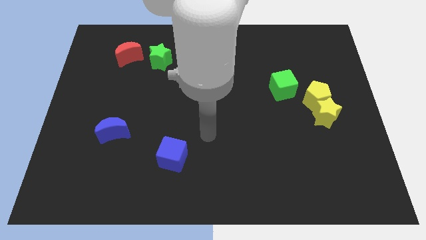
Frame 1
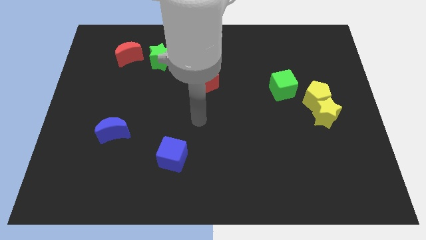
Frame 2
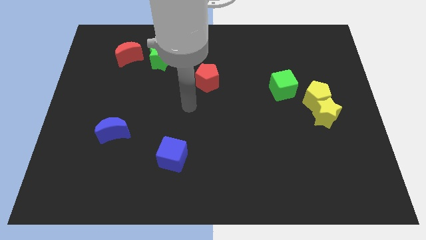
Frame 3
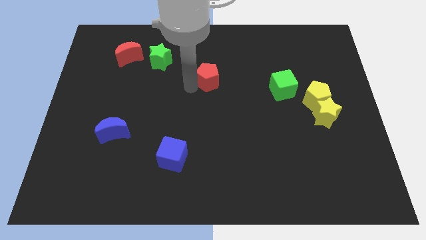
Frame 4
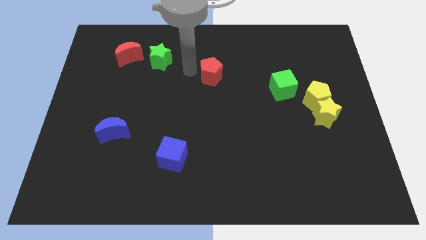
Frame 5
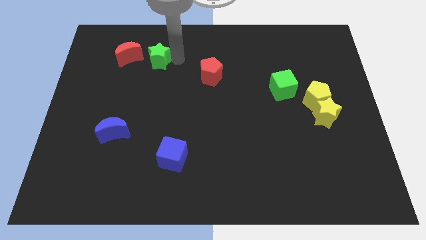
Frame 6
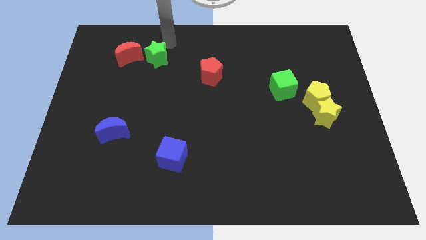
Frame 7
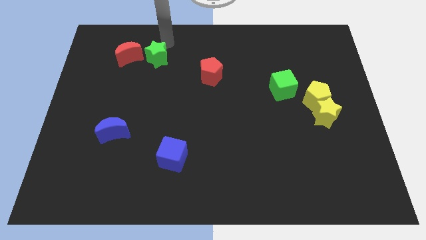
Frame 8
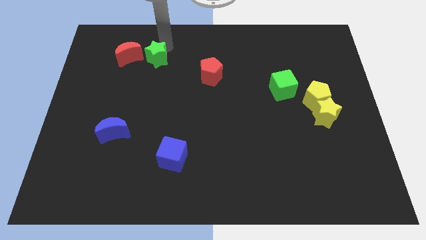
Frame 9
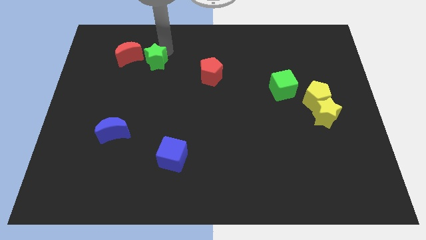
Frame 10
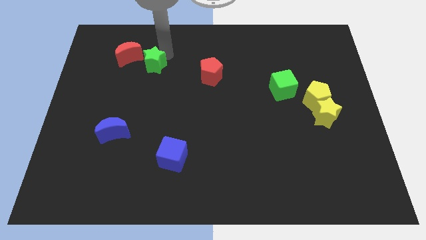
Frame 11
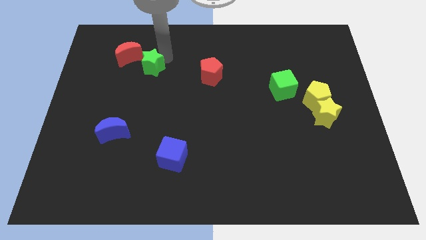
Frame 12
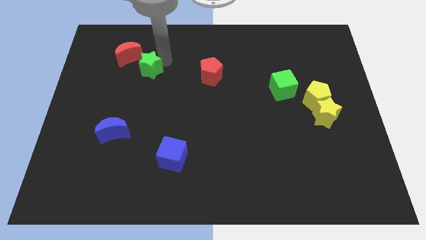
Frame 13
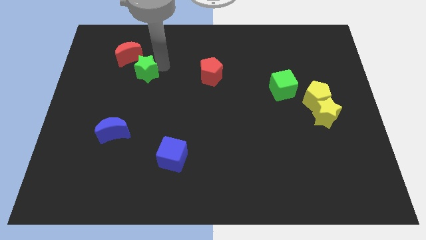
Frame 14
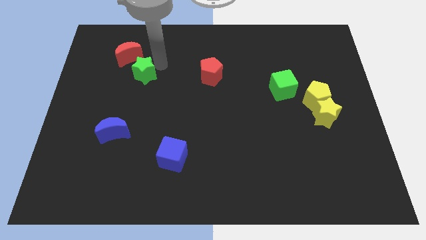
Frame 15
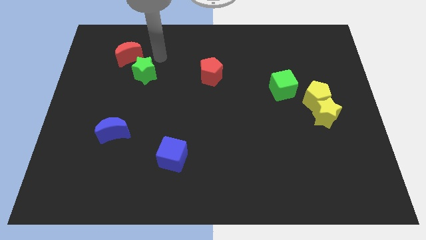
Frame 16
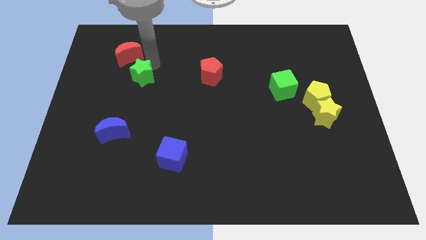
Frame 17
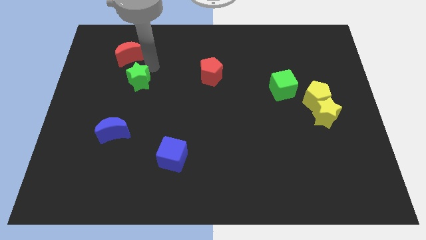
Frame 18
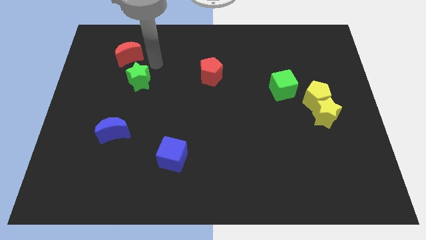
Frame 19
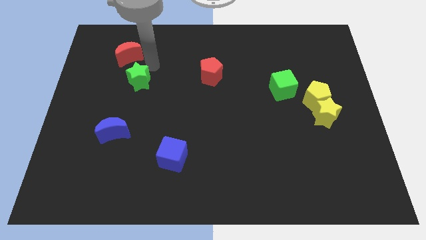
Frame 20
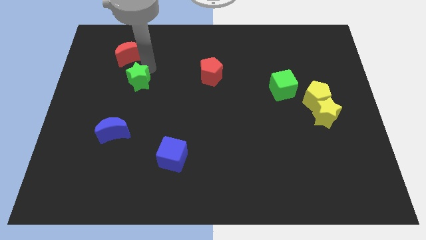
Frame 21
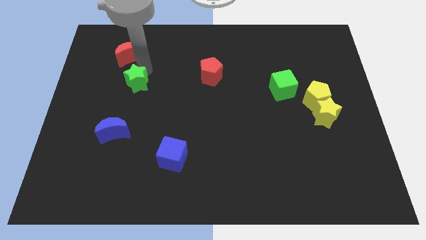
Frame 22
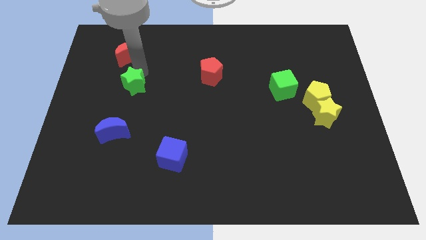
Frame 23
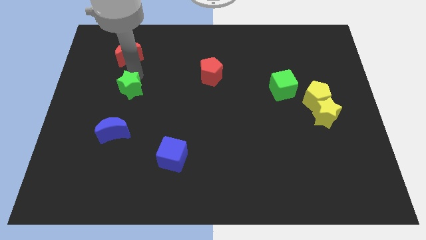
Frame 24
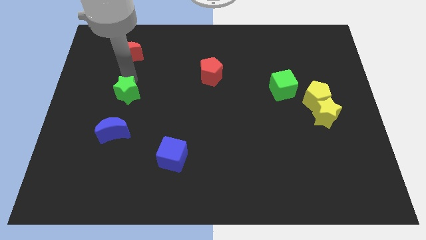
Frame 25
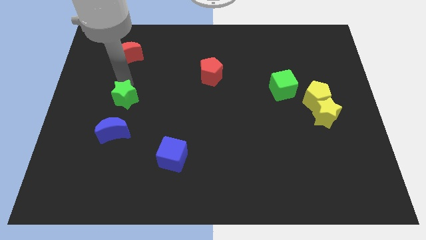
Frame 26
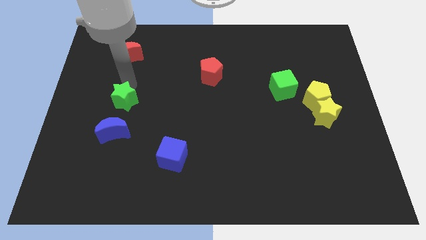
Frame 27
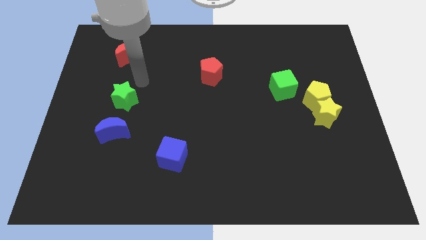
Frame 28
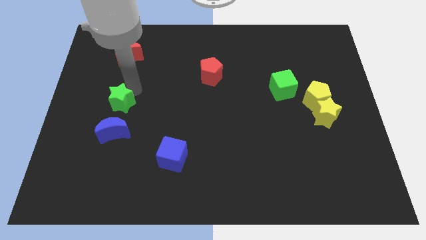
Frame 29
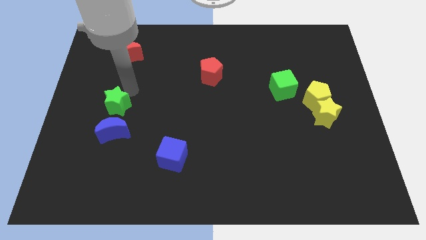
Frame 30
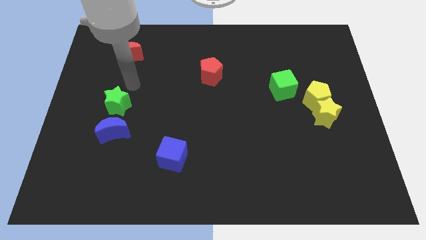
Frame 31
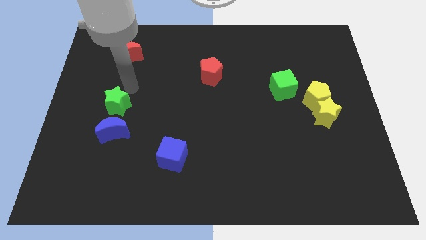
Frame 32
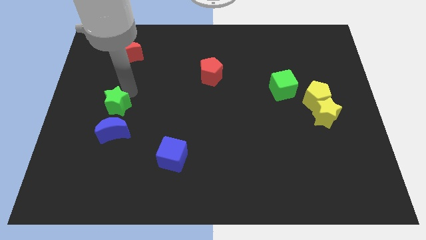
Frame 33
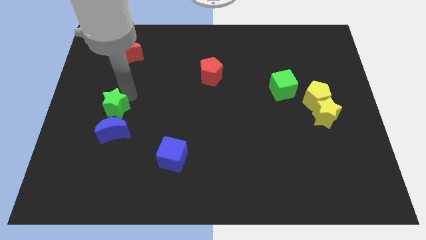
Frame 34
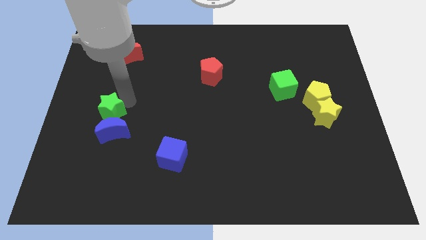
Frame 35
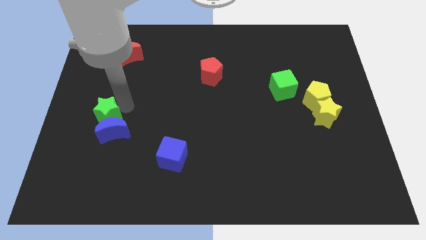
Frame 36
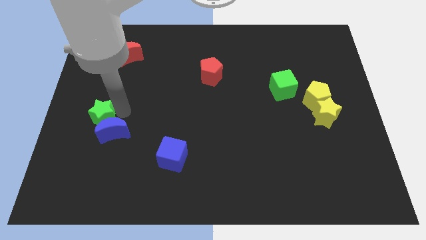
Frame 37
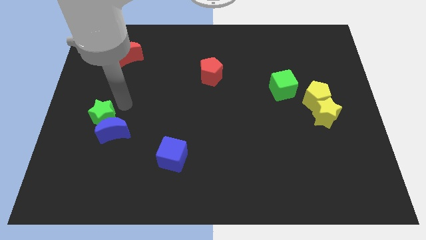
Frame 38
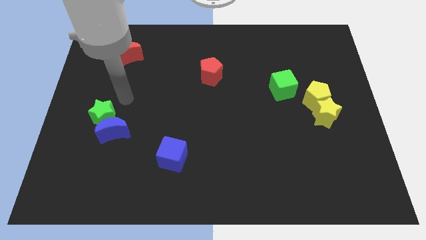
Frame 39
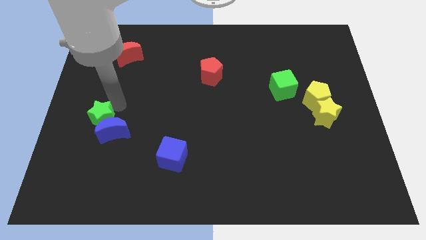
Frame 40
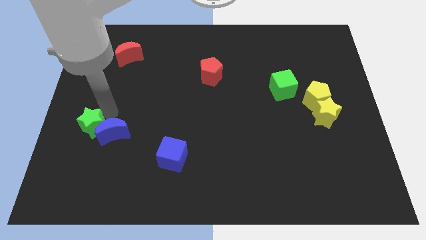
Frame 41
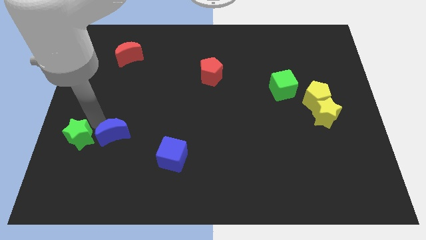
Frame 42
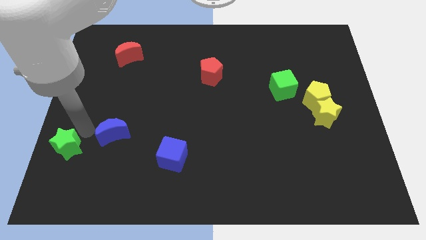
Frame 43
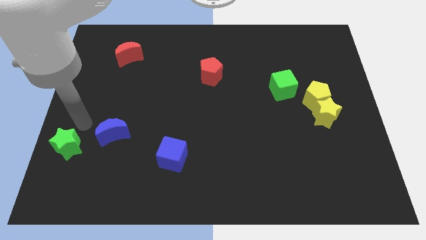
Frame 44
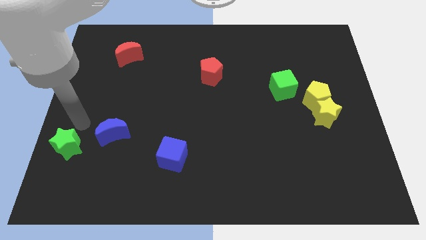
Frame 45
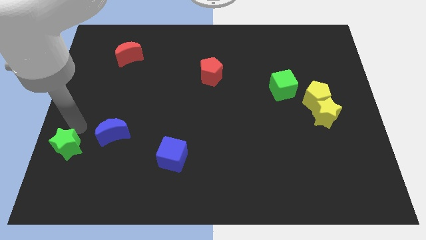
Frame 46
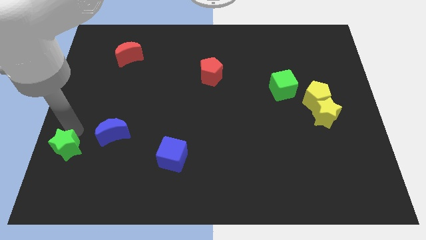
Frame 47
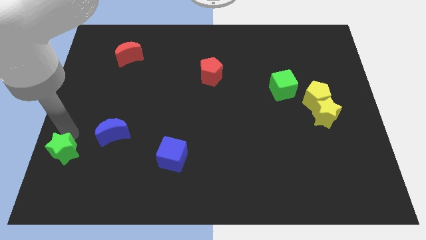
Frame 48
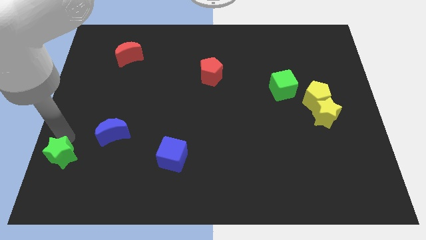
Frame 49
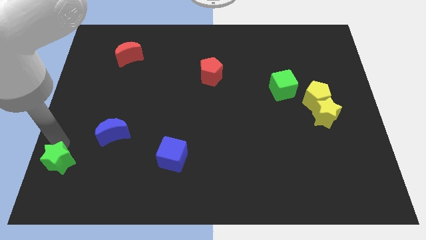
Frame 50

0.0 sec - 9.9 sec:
slide the green star to the lower left corner

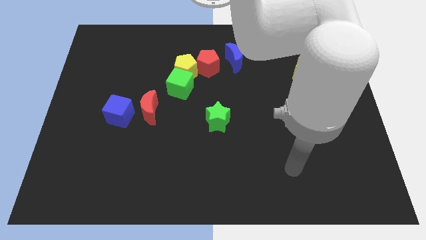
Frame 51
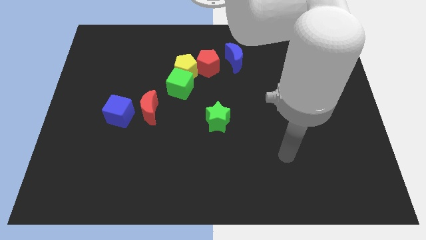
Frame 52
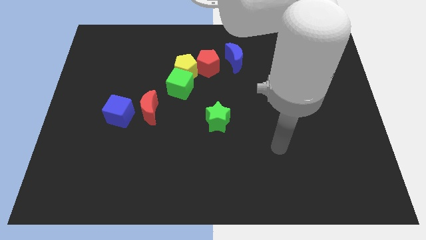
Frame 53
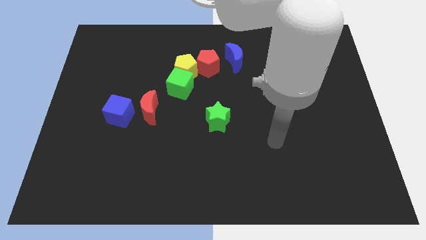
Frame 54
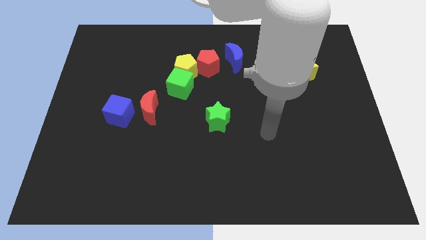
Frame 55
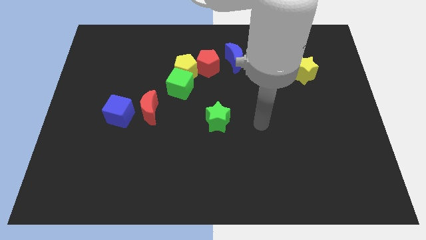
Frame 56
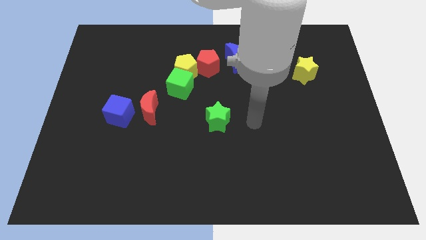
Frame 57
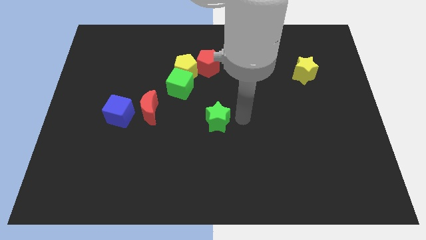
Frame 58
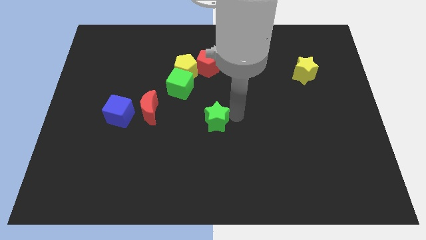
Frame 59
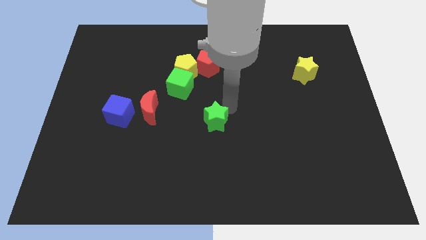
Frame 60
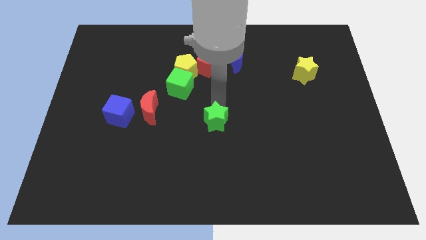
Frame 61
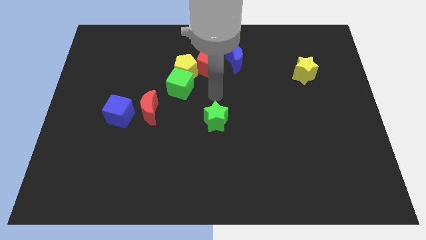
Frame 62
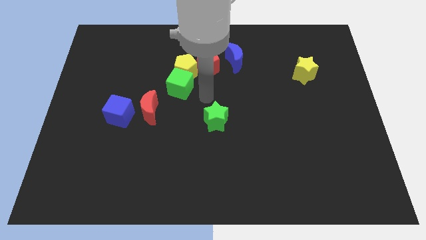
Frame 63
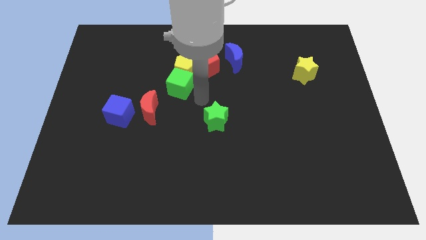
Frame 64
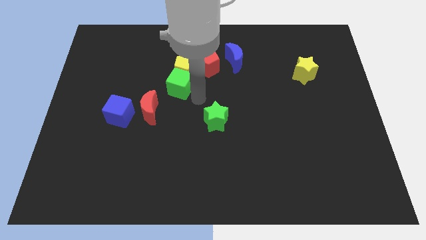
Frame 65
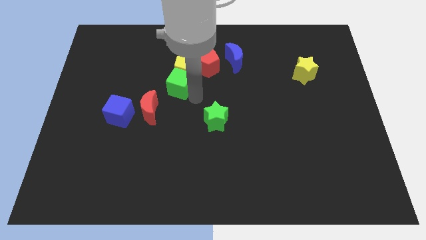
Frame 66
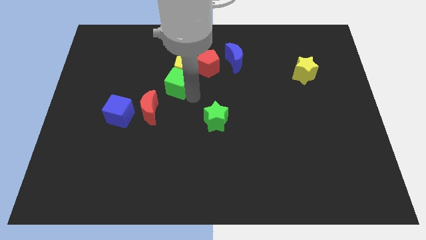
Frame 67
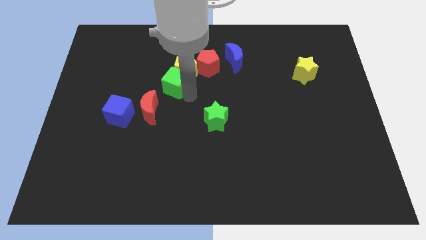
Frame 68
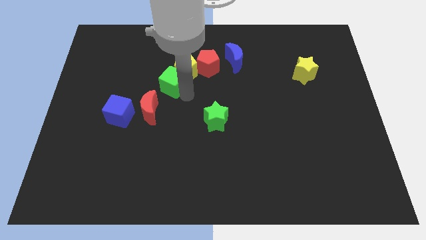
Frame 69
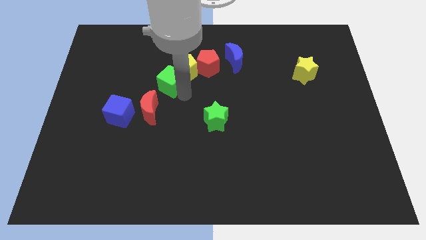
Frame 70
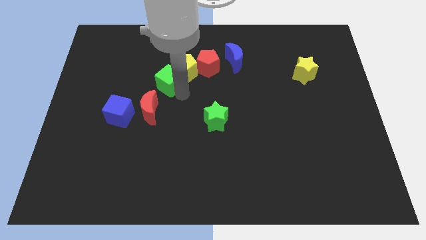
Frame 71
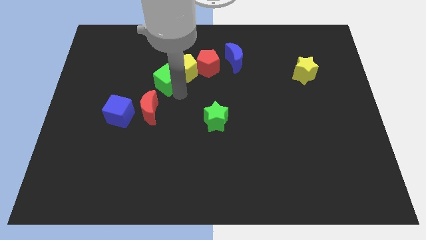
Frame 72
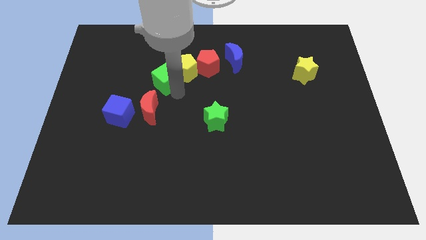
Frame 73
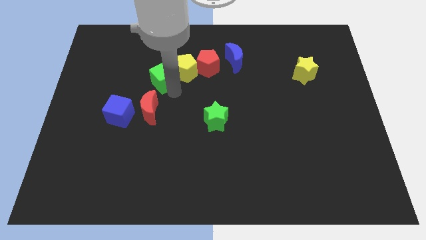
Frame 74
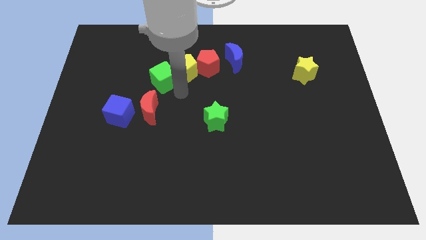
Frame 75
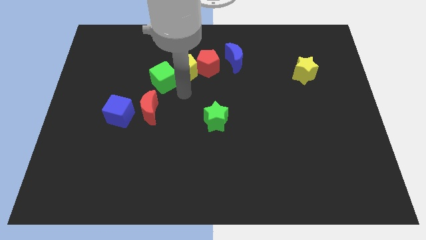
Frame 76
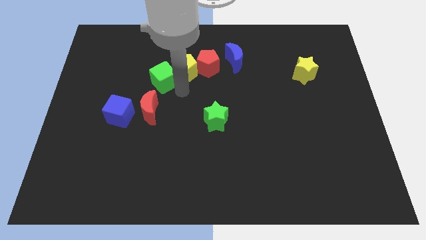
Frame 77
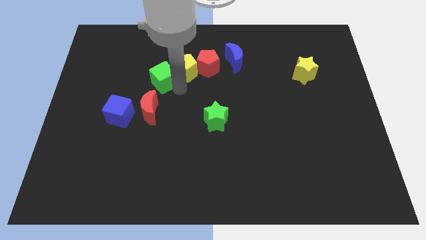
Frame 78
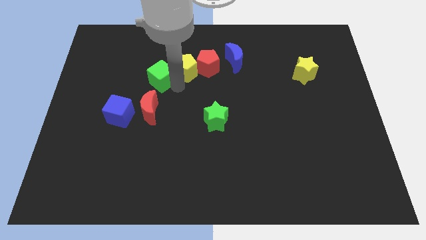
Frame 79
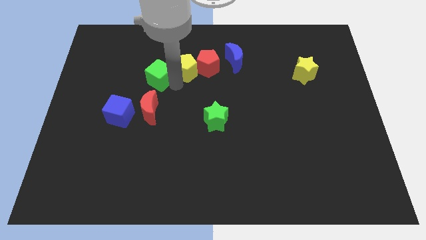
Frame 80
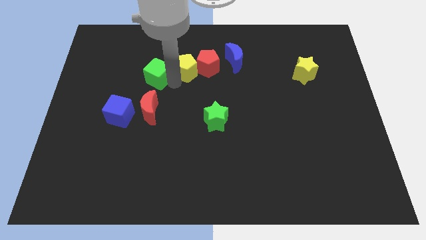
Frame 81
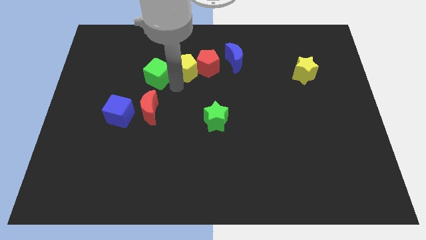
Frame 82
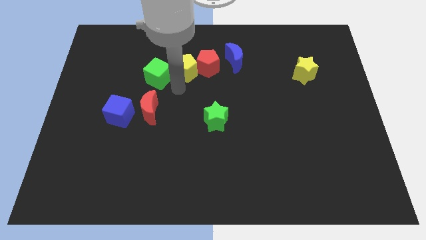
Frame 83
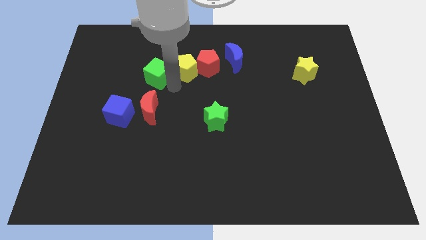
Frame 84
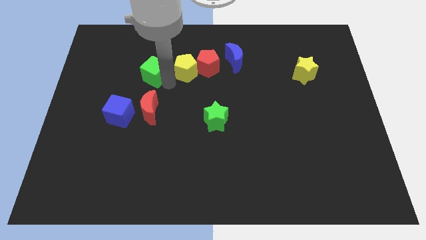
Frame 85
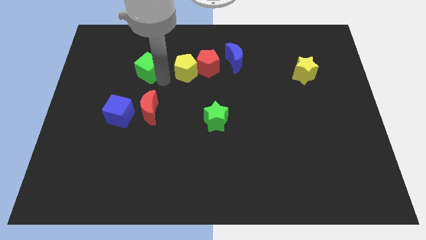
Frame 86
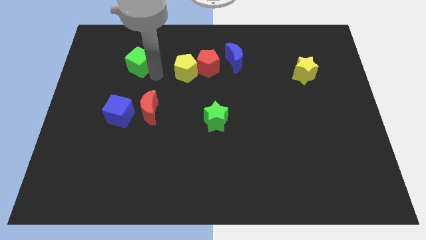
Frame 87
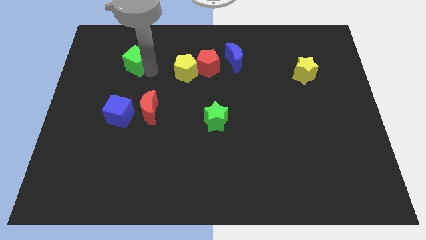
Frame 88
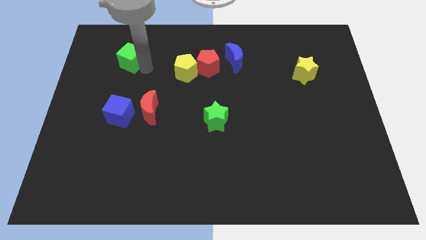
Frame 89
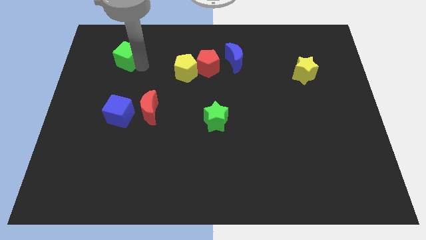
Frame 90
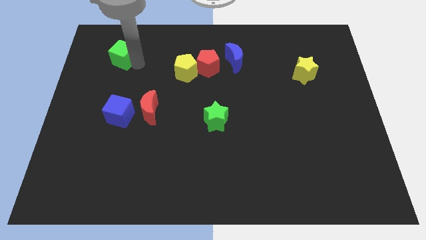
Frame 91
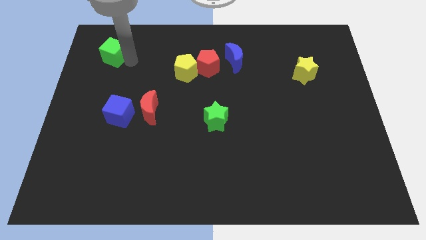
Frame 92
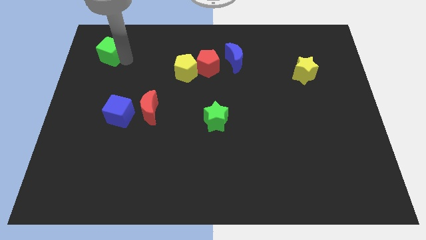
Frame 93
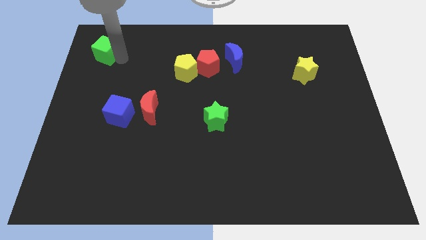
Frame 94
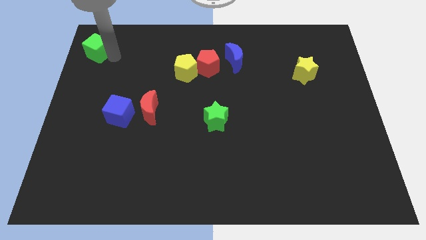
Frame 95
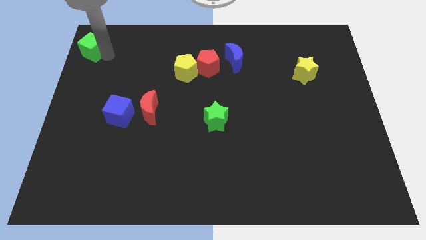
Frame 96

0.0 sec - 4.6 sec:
put the green cube to the top left of the board
